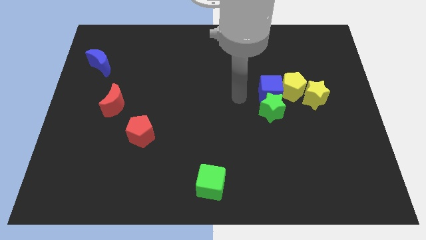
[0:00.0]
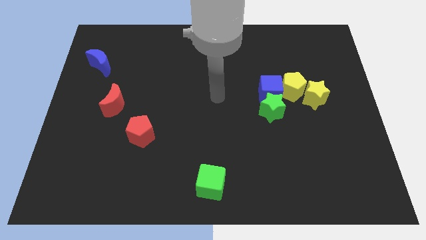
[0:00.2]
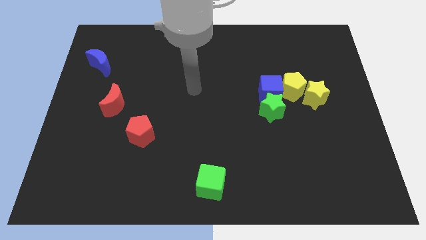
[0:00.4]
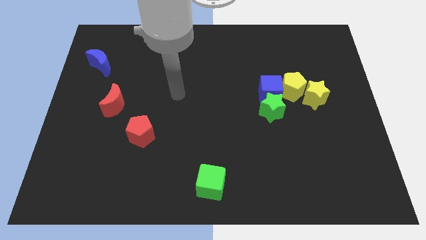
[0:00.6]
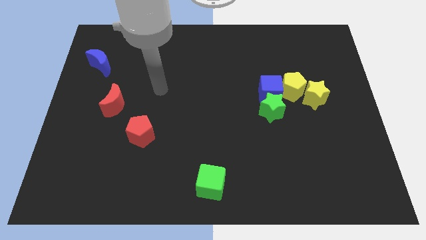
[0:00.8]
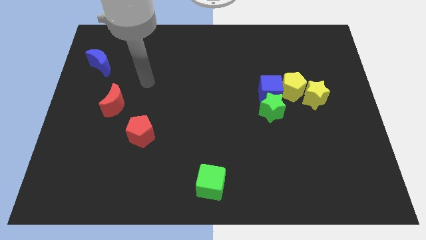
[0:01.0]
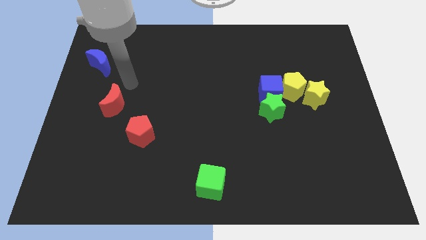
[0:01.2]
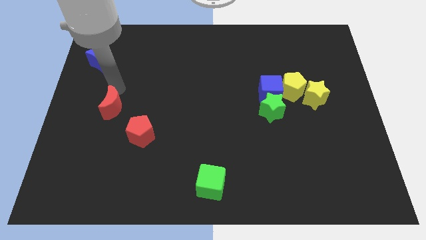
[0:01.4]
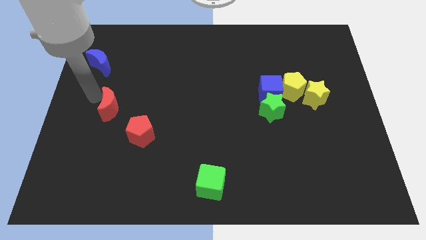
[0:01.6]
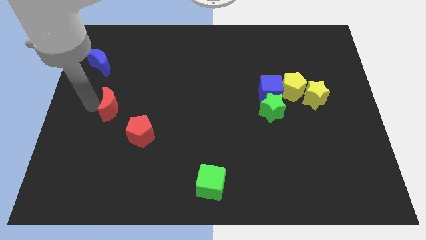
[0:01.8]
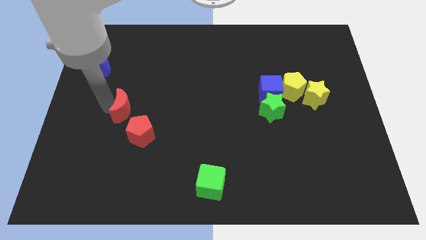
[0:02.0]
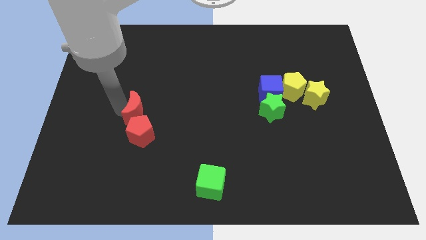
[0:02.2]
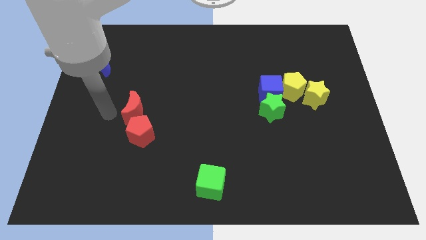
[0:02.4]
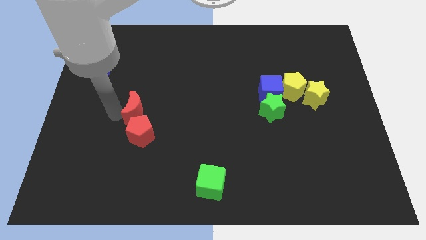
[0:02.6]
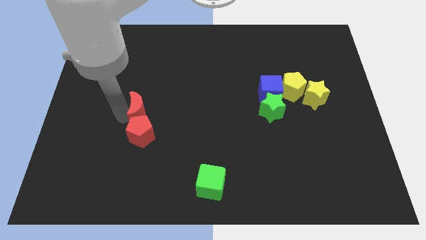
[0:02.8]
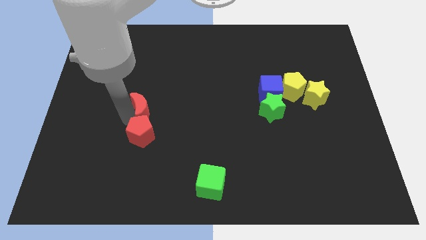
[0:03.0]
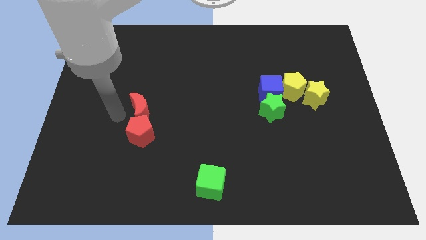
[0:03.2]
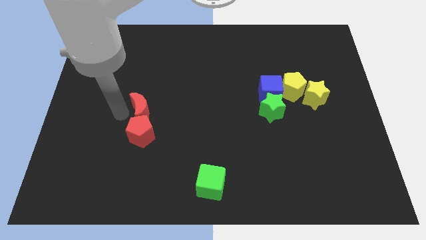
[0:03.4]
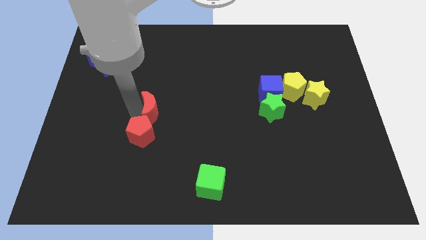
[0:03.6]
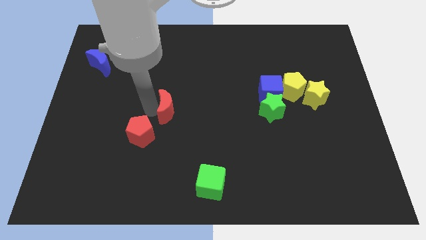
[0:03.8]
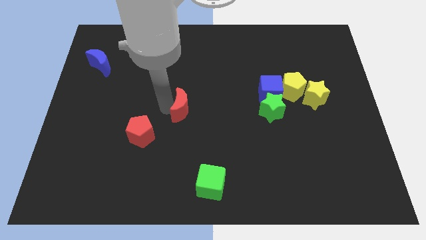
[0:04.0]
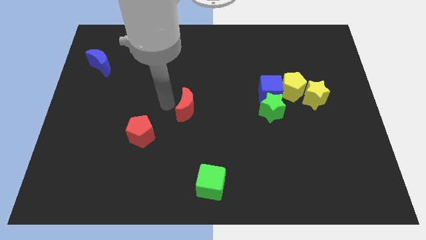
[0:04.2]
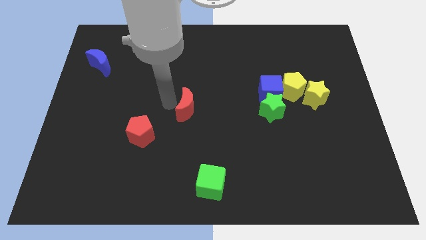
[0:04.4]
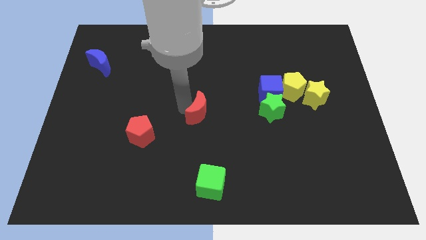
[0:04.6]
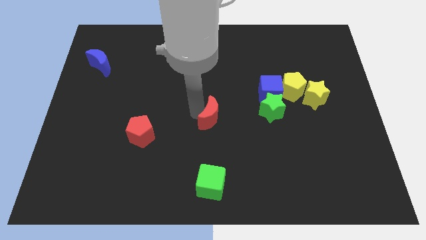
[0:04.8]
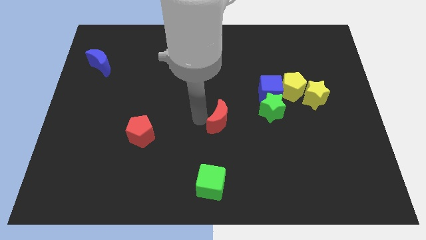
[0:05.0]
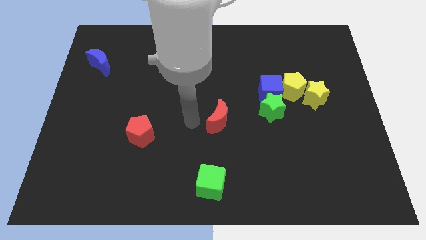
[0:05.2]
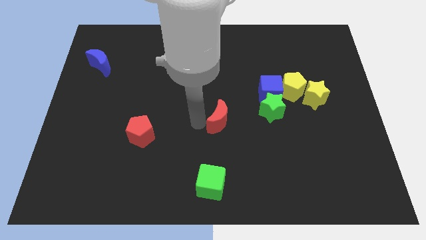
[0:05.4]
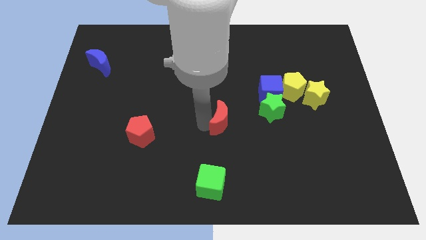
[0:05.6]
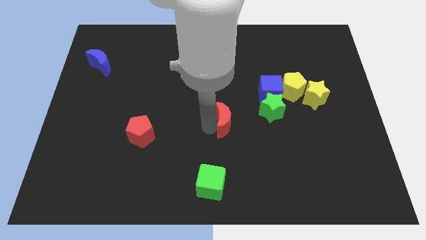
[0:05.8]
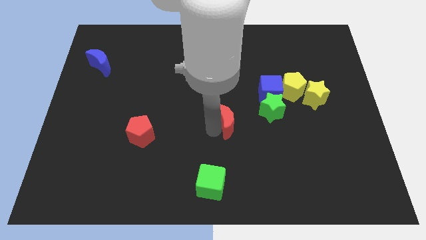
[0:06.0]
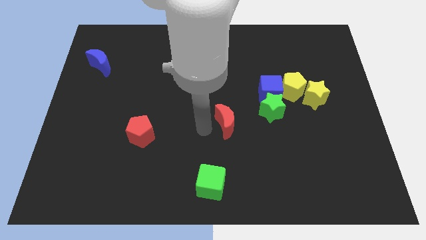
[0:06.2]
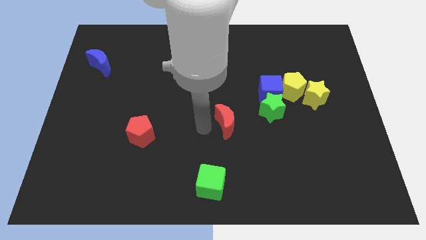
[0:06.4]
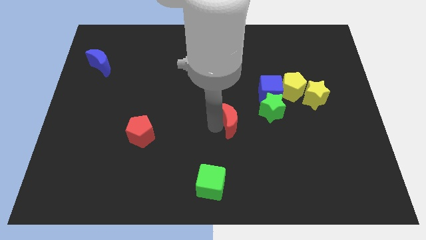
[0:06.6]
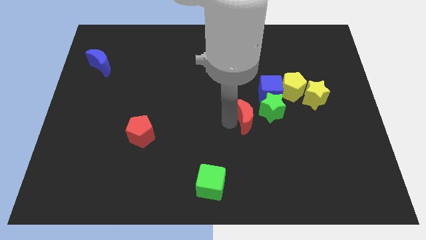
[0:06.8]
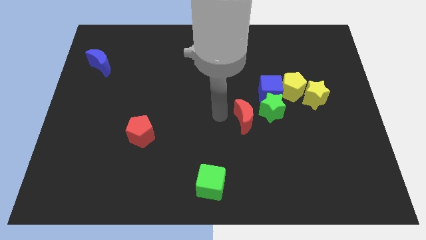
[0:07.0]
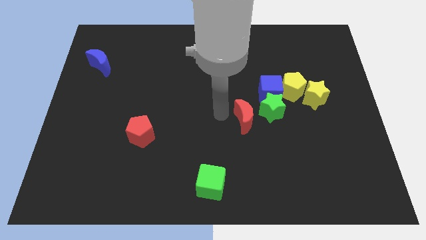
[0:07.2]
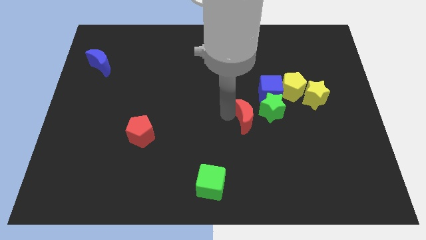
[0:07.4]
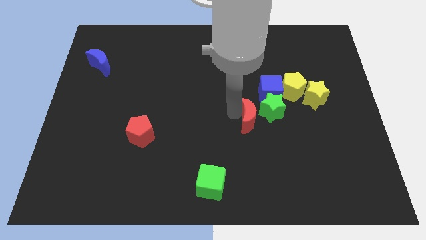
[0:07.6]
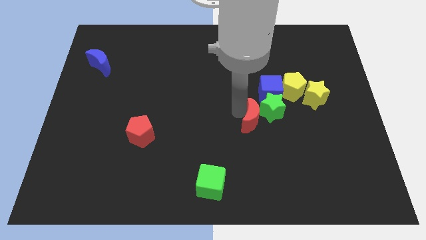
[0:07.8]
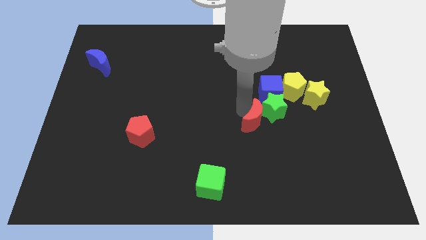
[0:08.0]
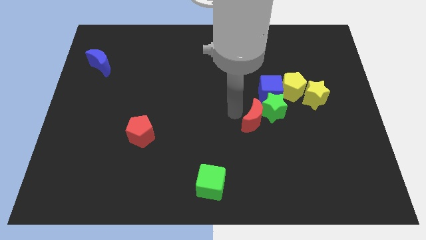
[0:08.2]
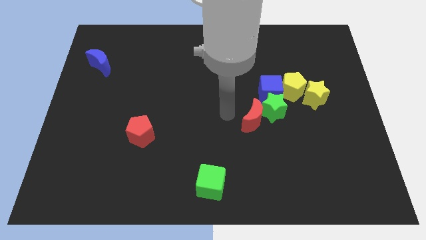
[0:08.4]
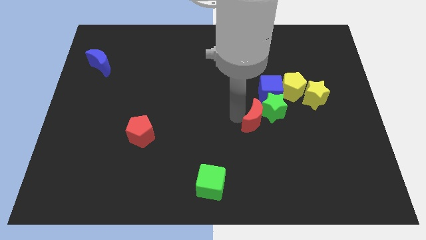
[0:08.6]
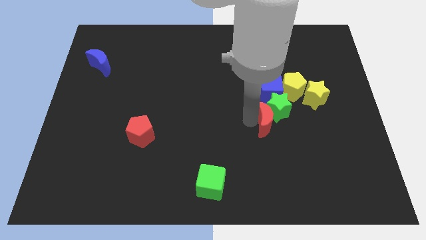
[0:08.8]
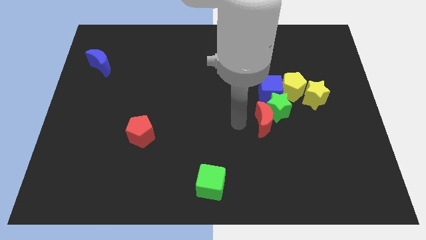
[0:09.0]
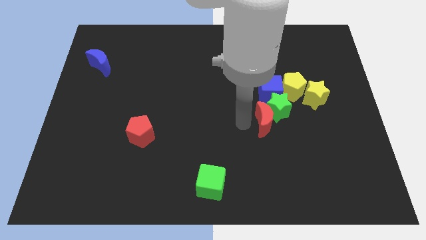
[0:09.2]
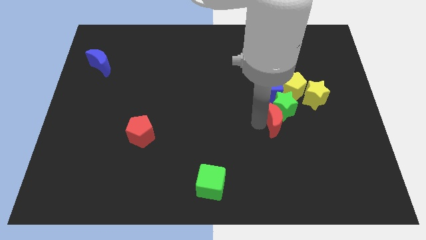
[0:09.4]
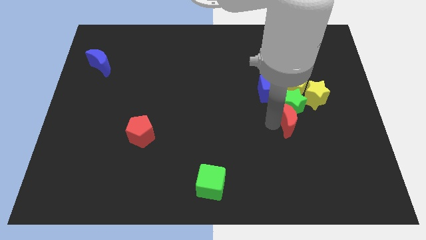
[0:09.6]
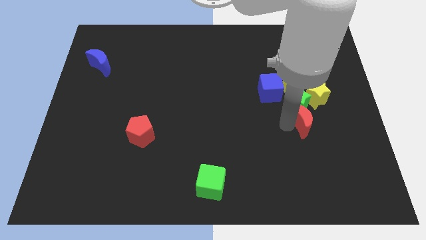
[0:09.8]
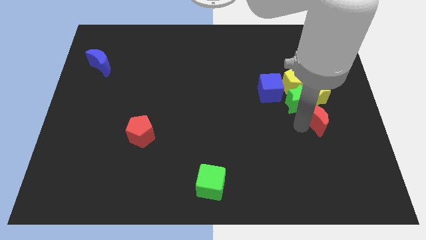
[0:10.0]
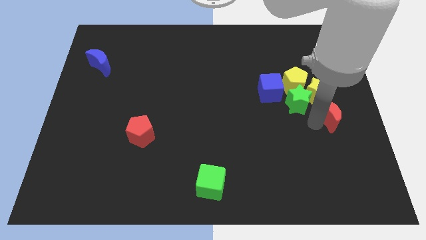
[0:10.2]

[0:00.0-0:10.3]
put the red moon to the center right

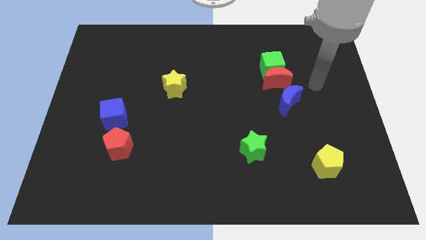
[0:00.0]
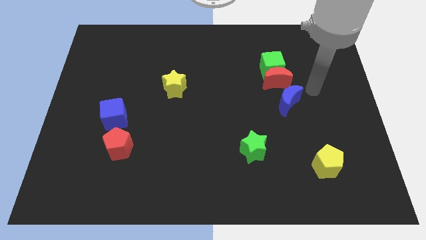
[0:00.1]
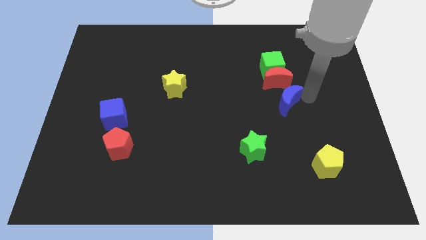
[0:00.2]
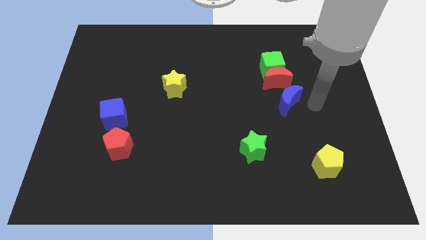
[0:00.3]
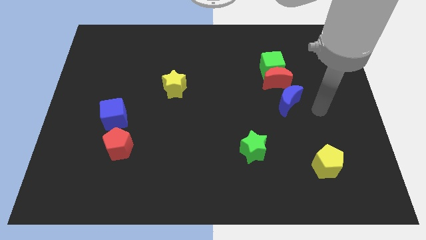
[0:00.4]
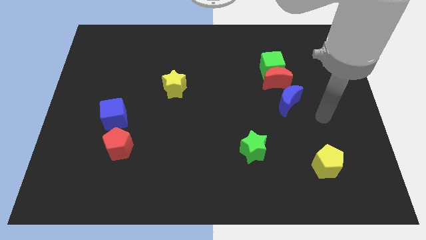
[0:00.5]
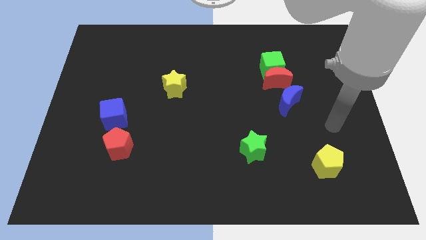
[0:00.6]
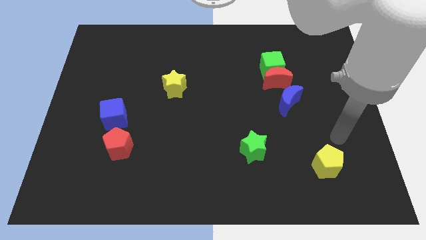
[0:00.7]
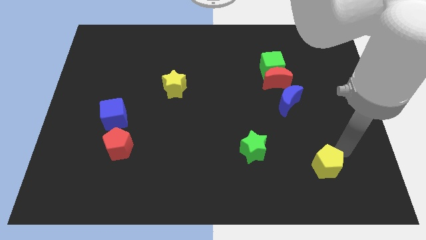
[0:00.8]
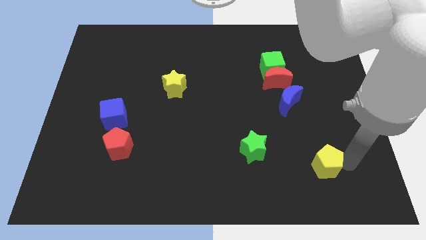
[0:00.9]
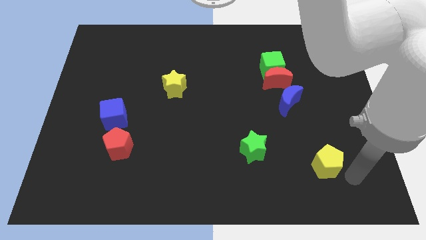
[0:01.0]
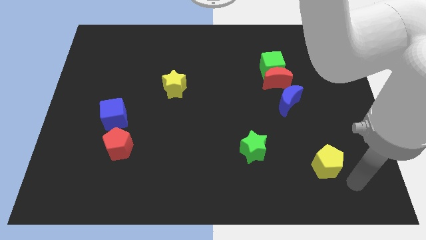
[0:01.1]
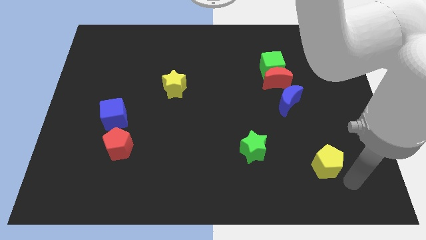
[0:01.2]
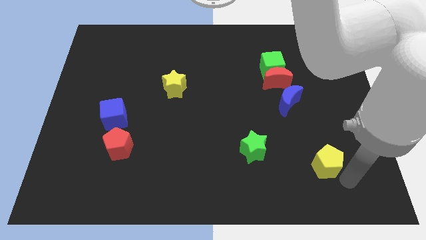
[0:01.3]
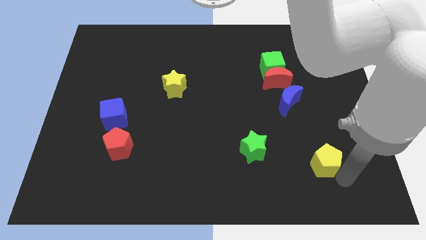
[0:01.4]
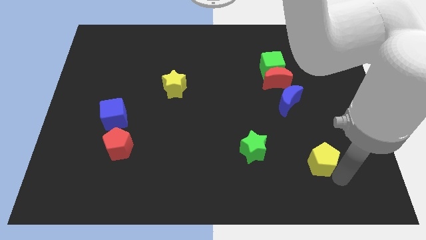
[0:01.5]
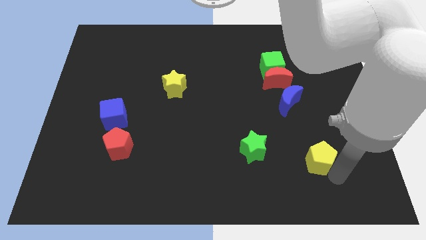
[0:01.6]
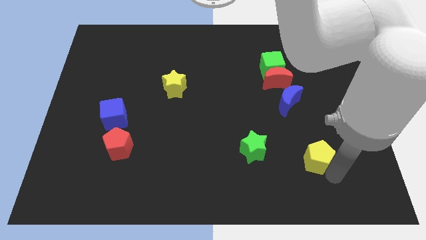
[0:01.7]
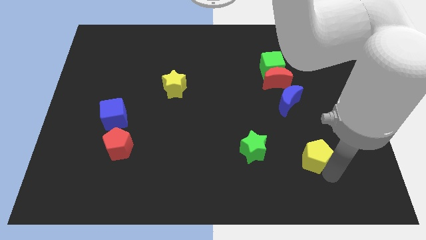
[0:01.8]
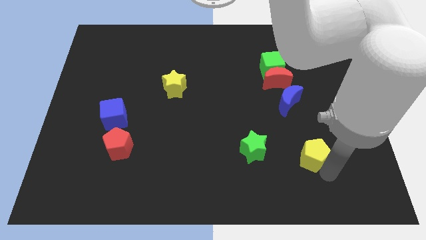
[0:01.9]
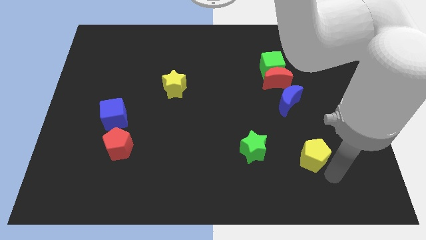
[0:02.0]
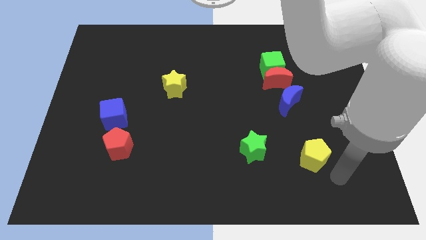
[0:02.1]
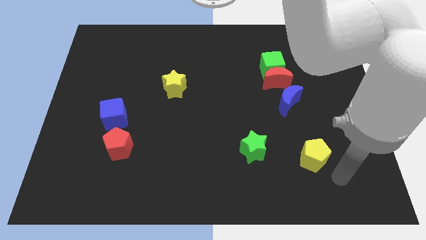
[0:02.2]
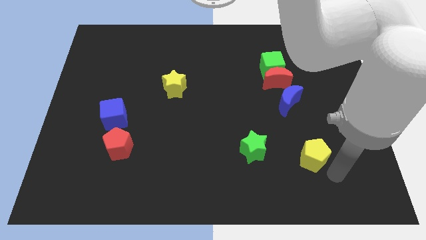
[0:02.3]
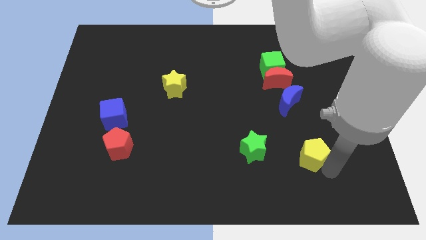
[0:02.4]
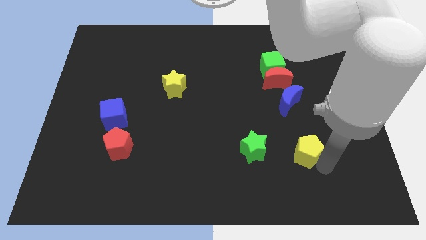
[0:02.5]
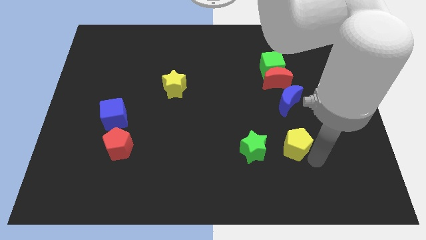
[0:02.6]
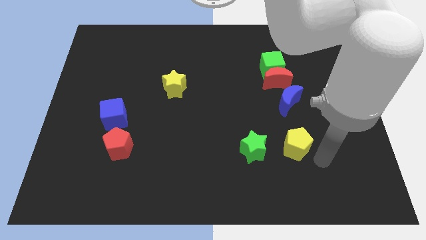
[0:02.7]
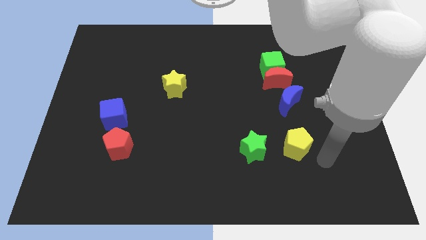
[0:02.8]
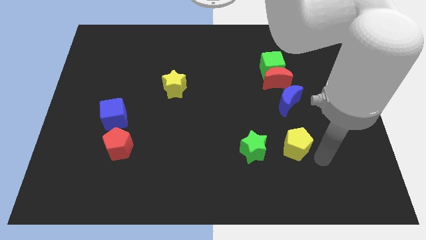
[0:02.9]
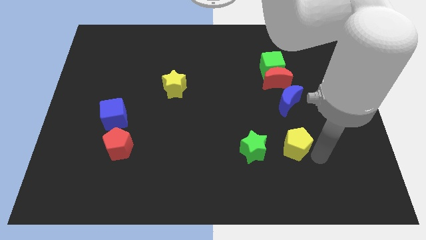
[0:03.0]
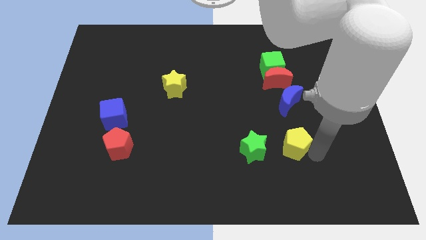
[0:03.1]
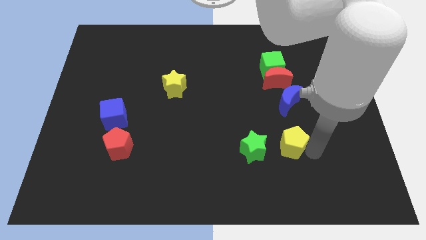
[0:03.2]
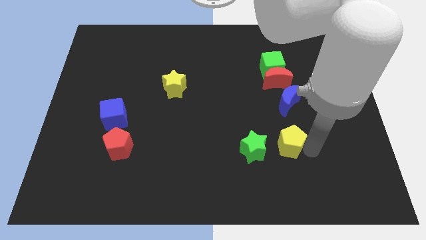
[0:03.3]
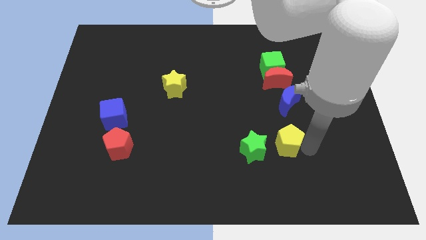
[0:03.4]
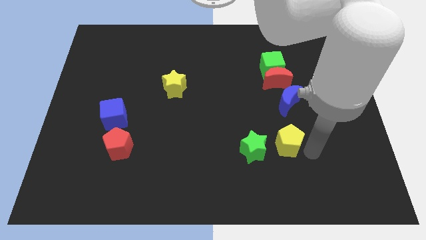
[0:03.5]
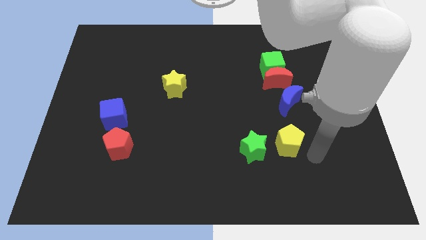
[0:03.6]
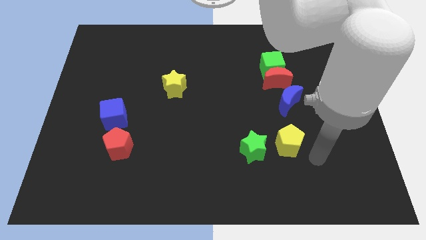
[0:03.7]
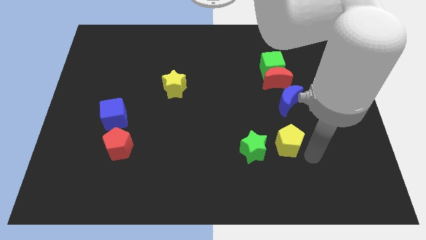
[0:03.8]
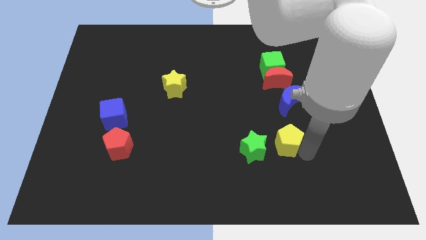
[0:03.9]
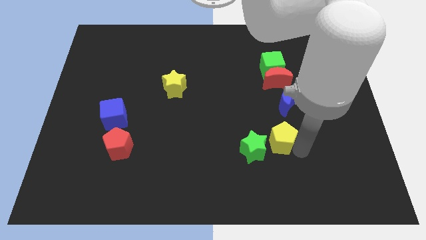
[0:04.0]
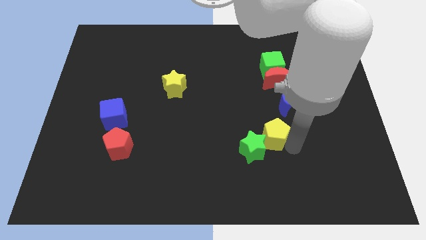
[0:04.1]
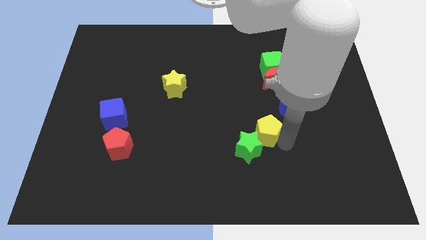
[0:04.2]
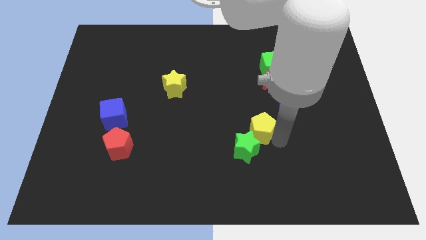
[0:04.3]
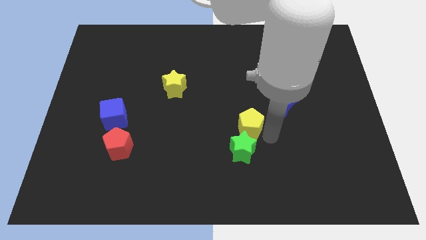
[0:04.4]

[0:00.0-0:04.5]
push the yellow pentagon to the middle of the board
